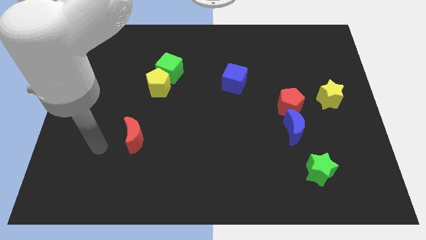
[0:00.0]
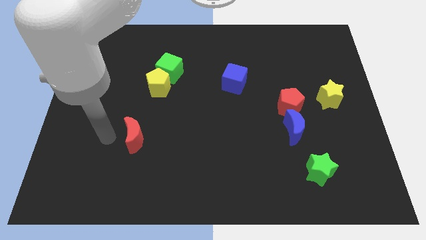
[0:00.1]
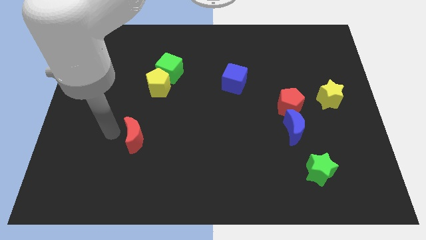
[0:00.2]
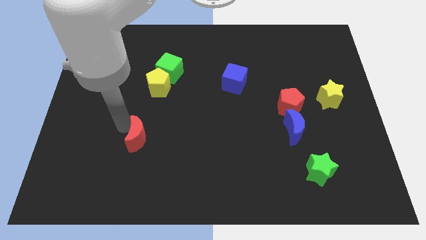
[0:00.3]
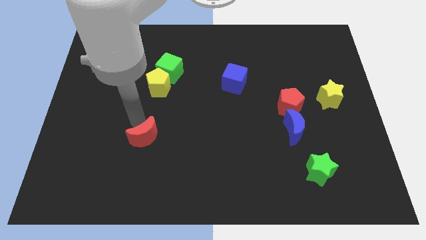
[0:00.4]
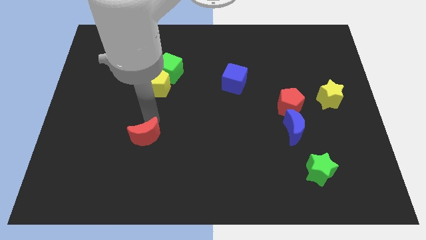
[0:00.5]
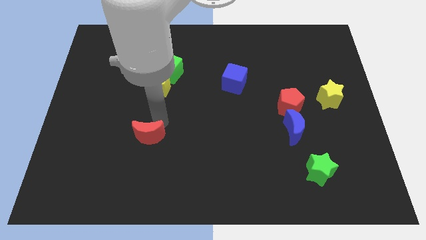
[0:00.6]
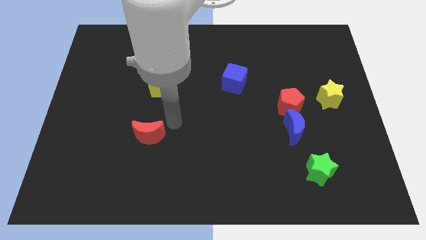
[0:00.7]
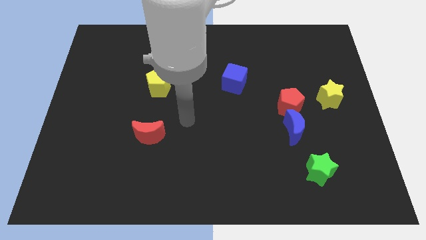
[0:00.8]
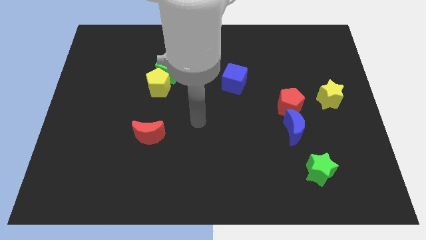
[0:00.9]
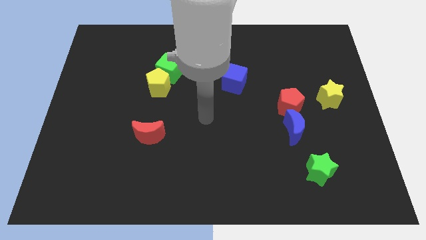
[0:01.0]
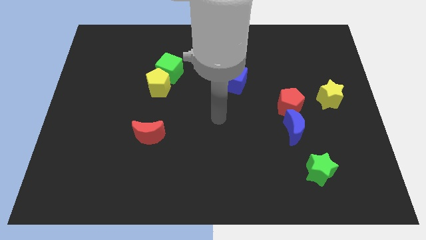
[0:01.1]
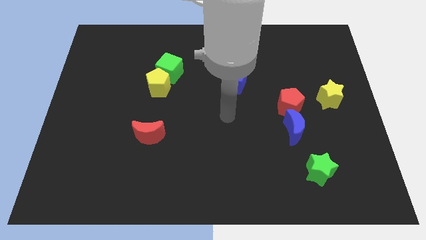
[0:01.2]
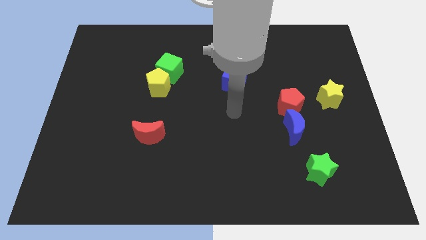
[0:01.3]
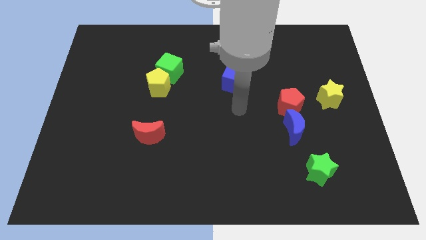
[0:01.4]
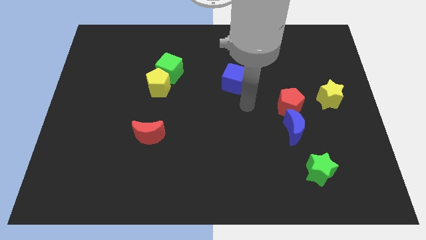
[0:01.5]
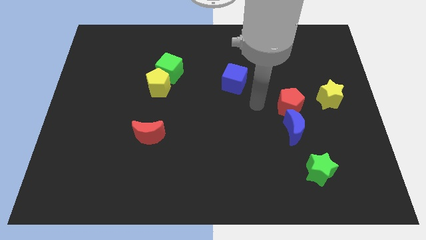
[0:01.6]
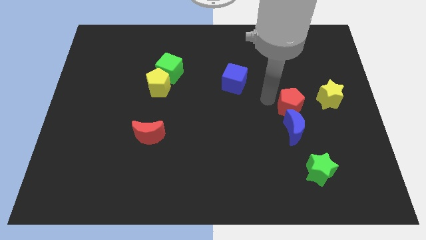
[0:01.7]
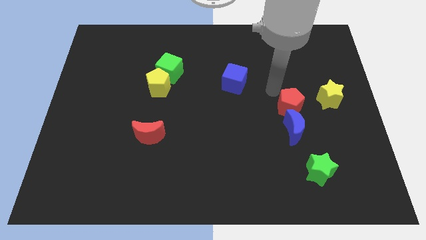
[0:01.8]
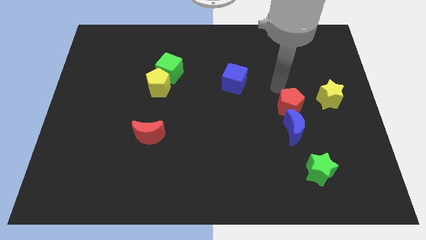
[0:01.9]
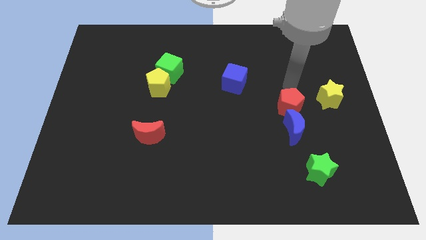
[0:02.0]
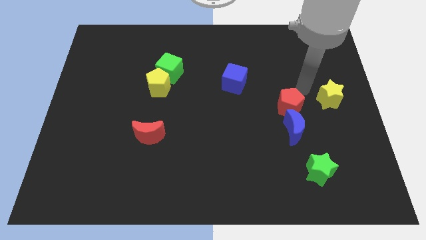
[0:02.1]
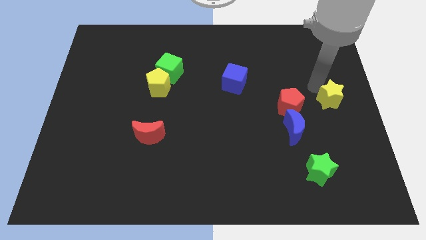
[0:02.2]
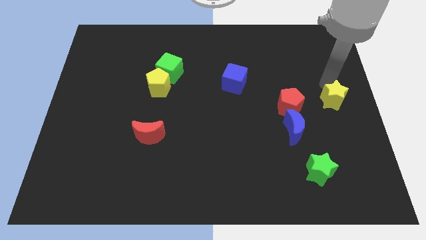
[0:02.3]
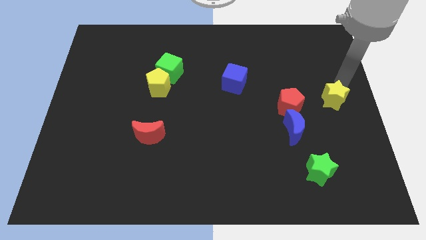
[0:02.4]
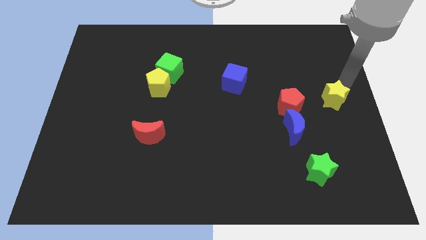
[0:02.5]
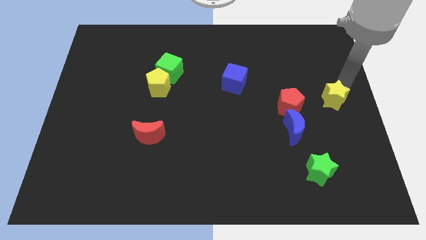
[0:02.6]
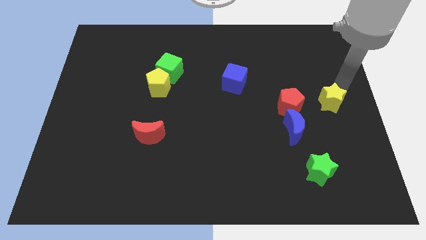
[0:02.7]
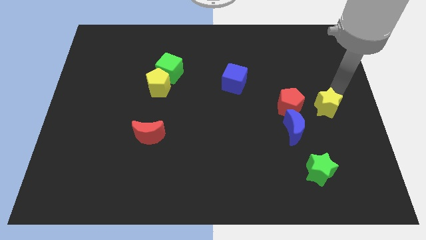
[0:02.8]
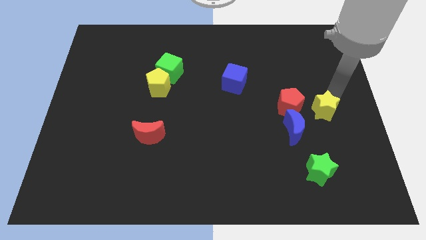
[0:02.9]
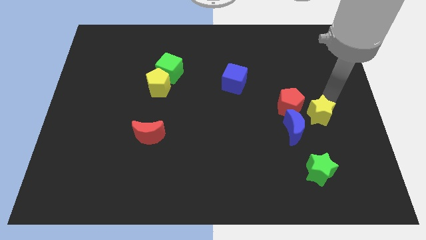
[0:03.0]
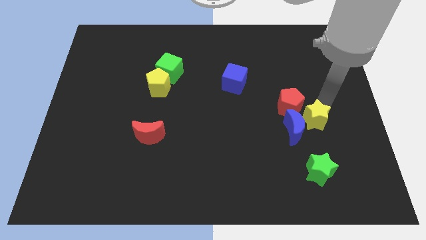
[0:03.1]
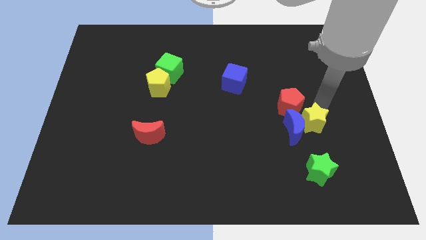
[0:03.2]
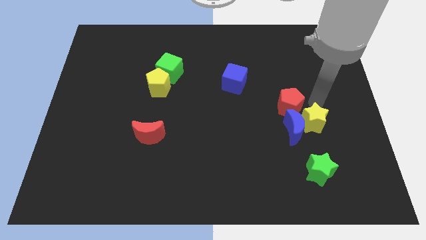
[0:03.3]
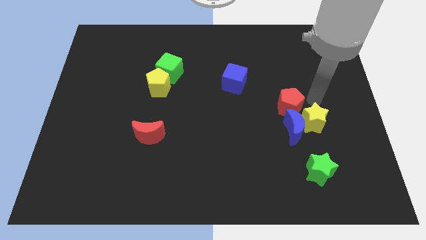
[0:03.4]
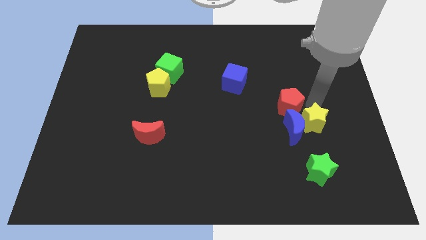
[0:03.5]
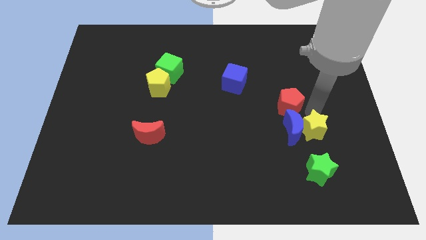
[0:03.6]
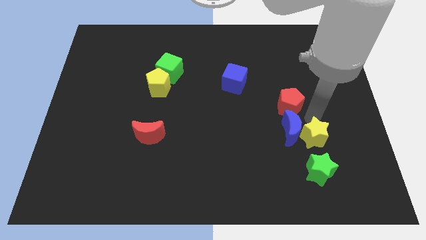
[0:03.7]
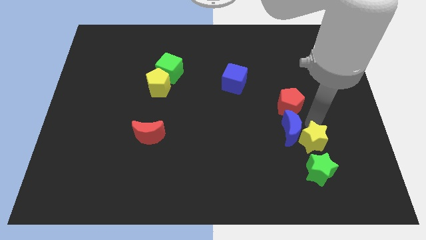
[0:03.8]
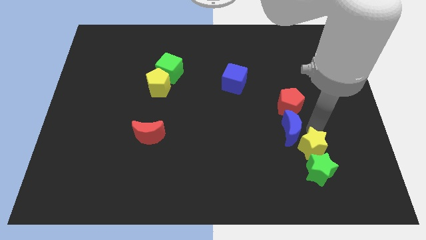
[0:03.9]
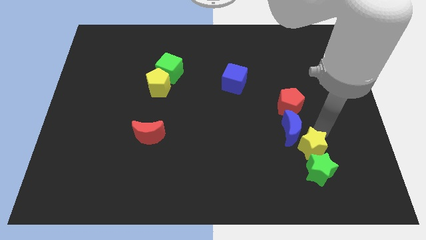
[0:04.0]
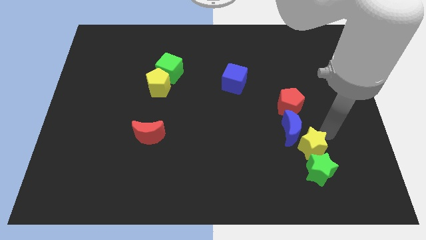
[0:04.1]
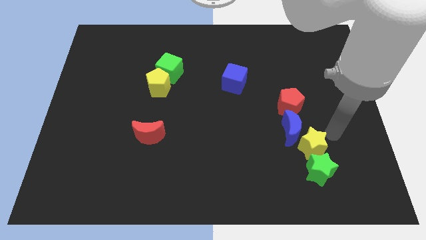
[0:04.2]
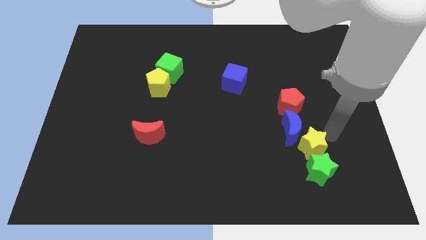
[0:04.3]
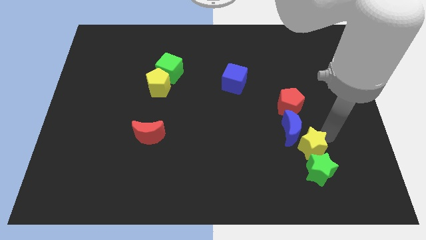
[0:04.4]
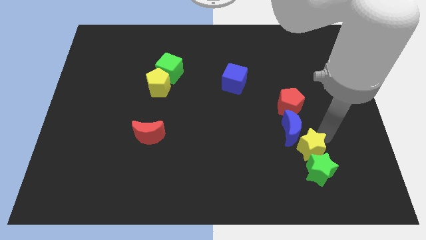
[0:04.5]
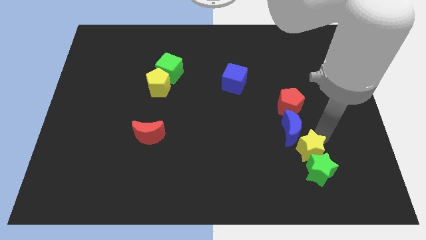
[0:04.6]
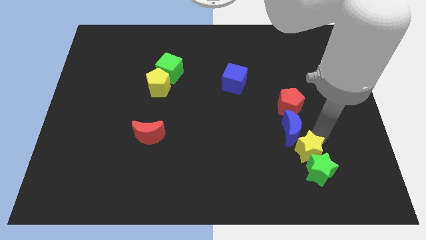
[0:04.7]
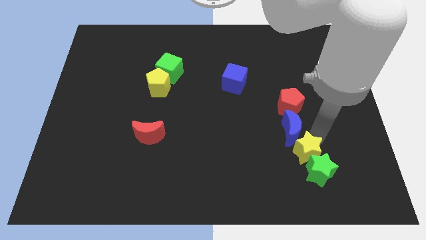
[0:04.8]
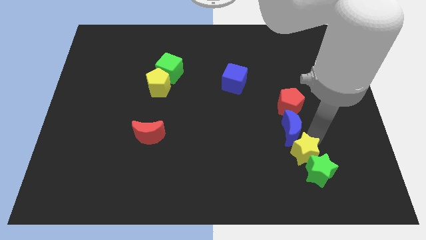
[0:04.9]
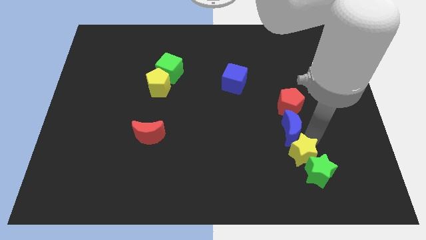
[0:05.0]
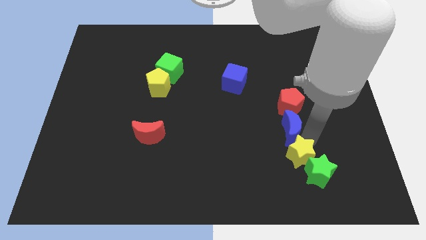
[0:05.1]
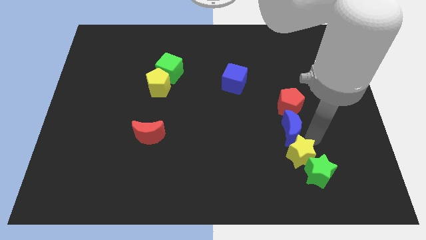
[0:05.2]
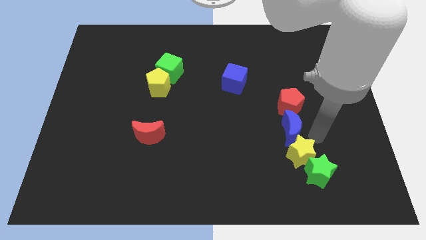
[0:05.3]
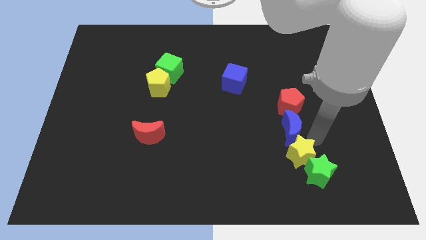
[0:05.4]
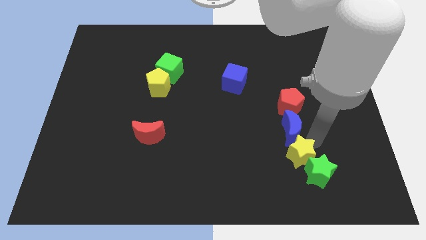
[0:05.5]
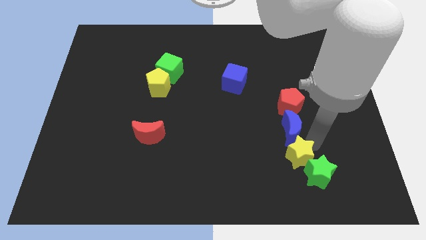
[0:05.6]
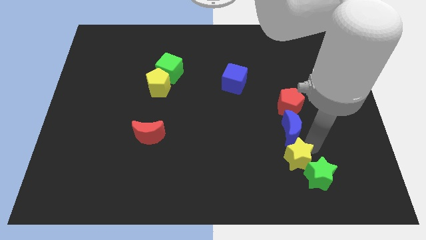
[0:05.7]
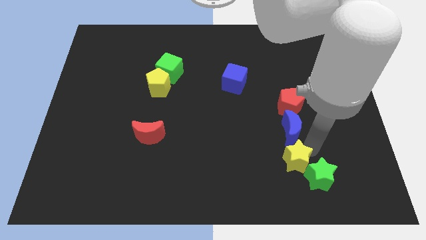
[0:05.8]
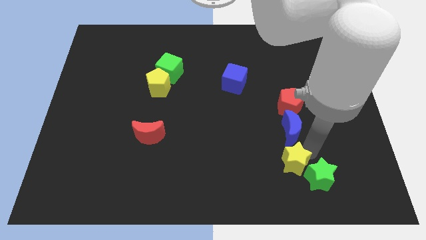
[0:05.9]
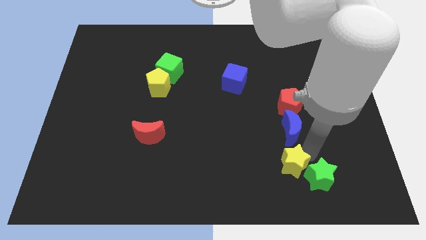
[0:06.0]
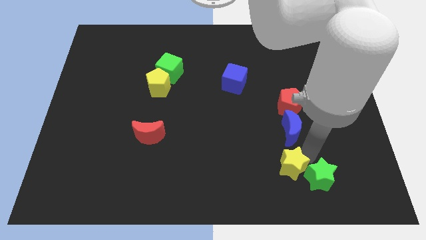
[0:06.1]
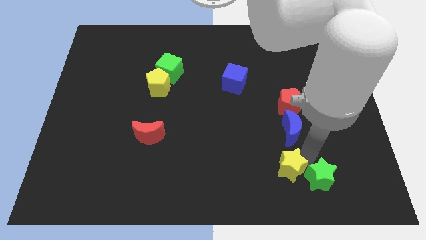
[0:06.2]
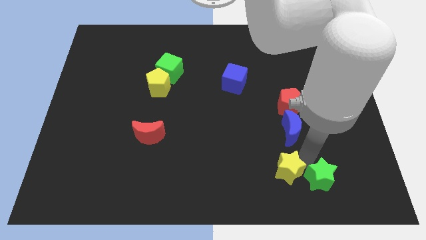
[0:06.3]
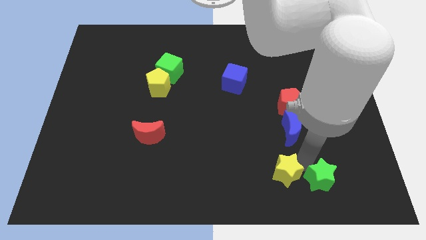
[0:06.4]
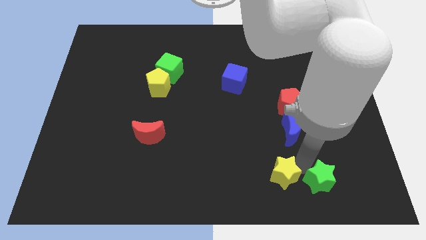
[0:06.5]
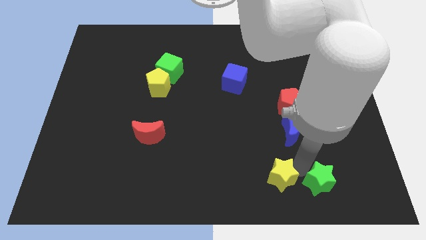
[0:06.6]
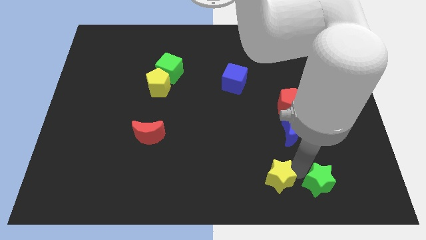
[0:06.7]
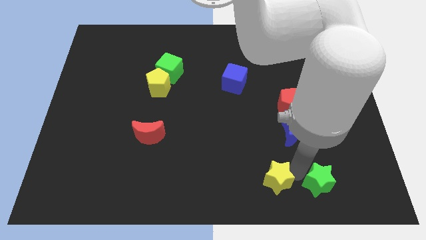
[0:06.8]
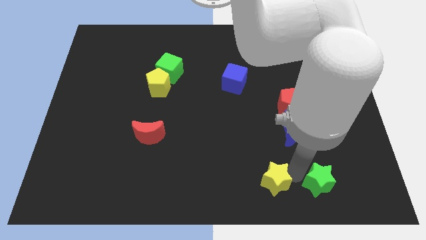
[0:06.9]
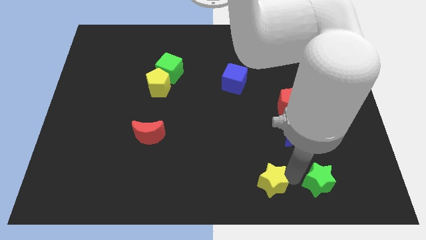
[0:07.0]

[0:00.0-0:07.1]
move the yellow star to the bottom side

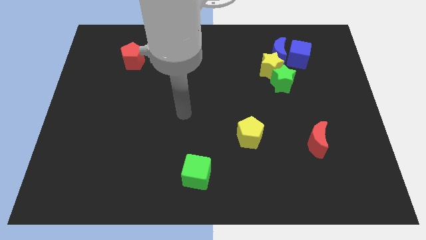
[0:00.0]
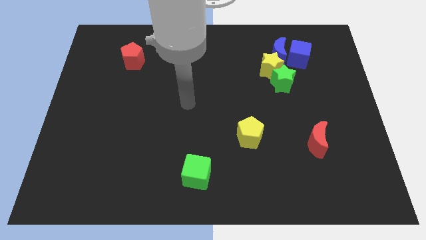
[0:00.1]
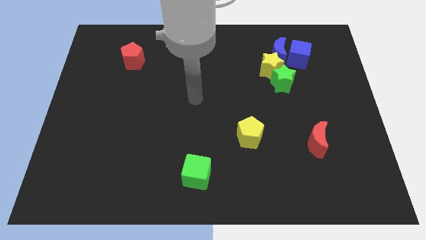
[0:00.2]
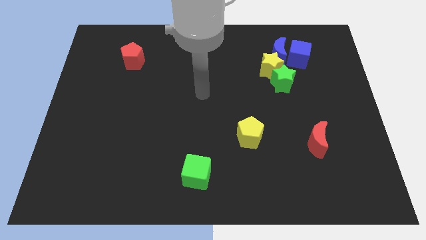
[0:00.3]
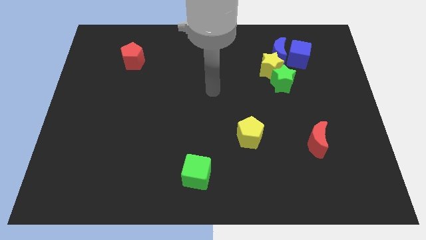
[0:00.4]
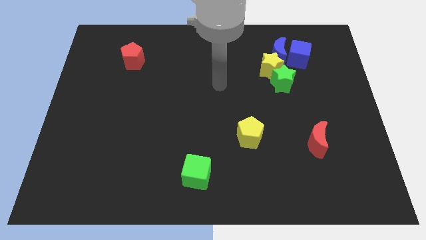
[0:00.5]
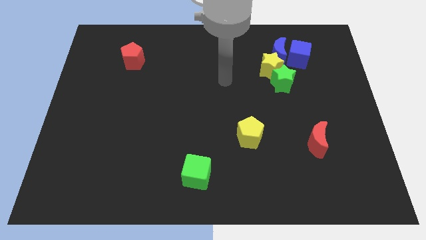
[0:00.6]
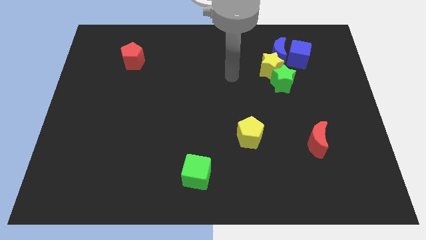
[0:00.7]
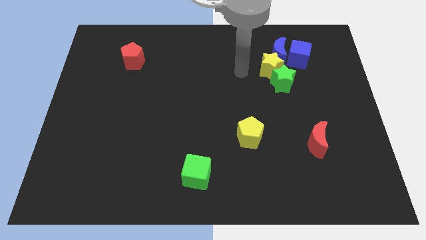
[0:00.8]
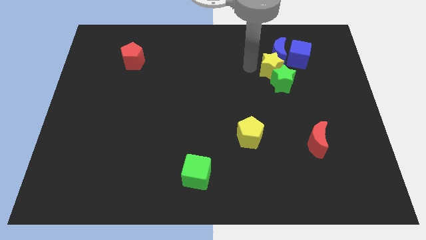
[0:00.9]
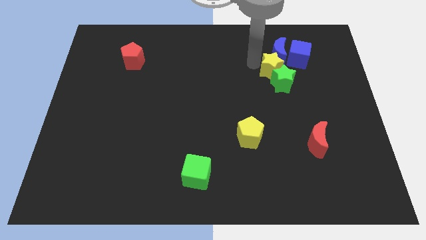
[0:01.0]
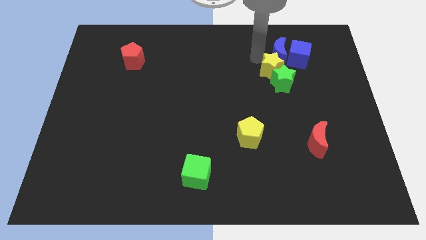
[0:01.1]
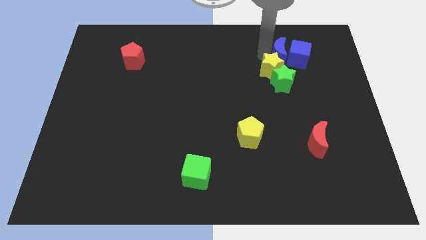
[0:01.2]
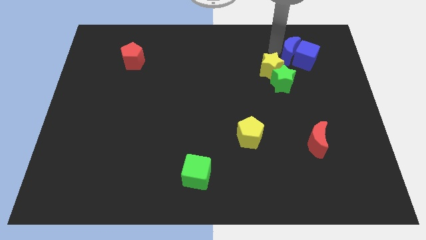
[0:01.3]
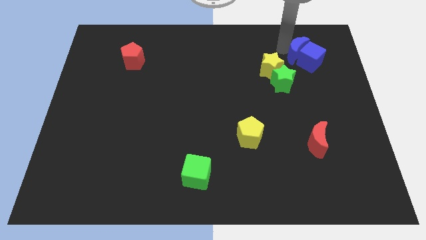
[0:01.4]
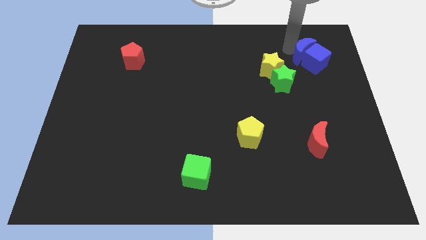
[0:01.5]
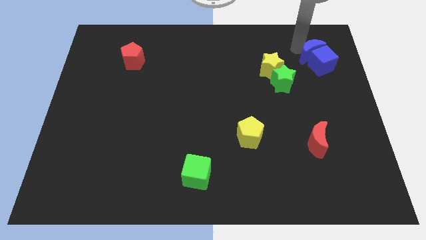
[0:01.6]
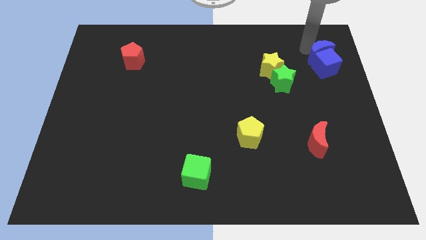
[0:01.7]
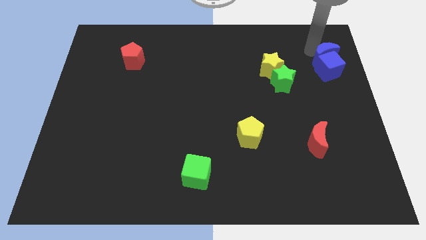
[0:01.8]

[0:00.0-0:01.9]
put the blue cube to the center right
